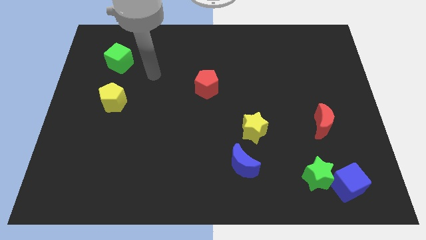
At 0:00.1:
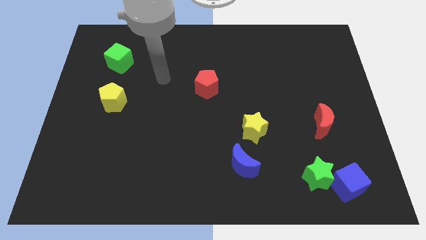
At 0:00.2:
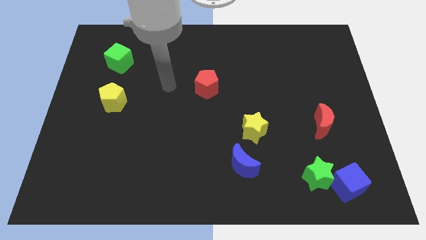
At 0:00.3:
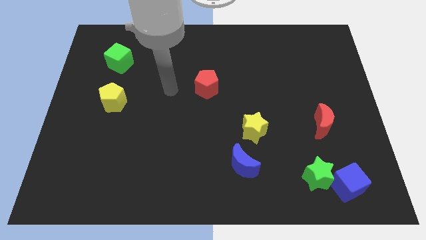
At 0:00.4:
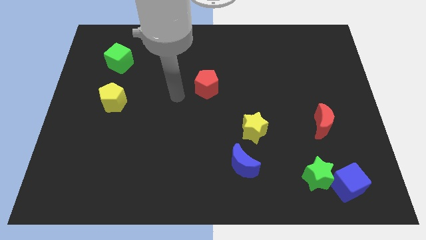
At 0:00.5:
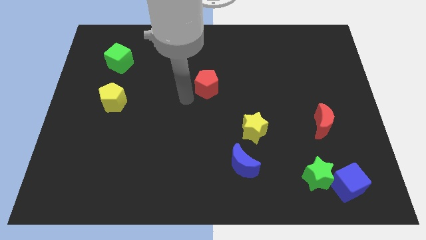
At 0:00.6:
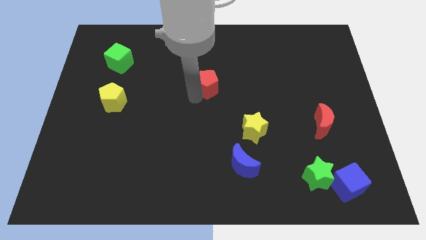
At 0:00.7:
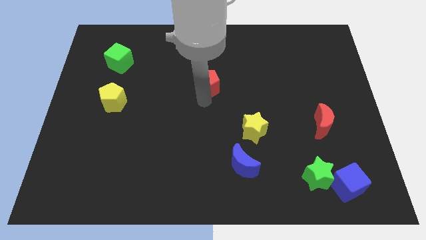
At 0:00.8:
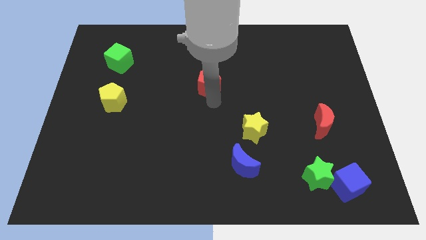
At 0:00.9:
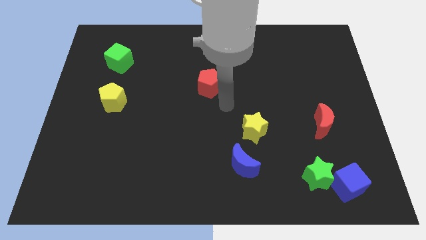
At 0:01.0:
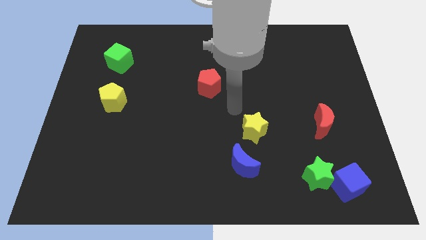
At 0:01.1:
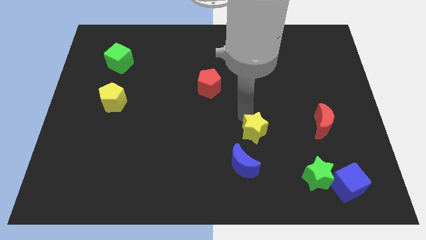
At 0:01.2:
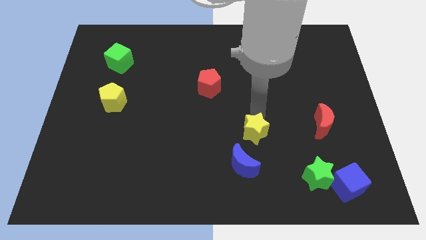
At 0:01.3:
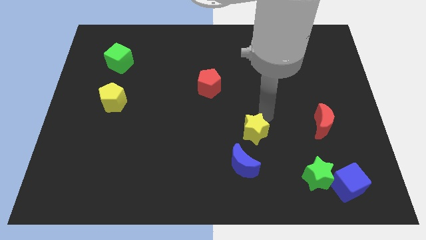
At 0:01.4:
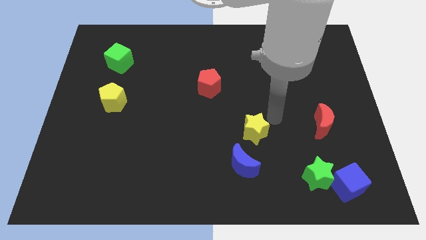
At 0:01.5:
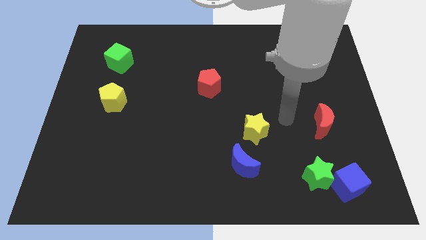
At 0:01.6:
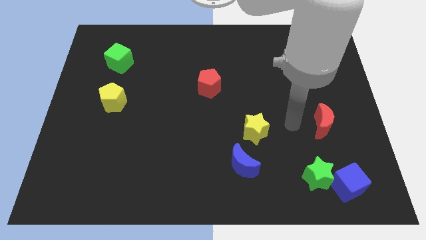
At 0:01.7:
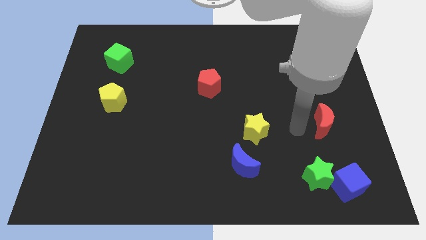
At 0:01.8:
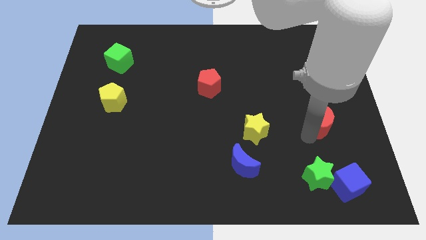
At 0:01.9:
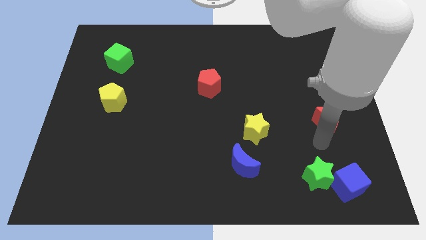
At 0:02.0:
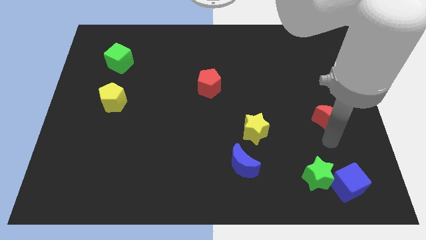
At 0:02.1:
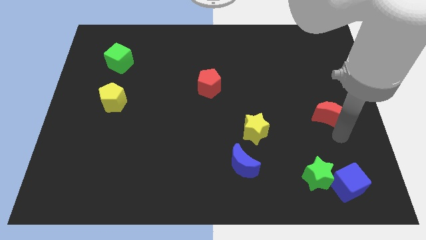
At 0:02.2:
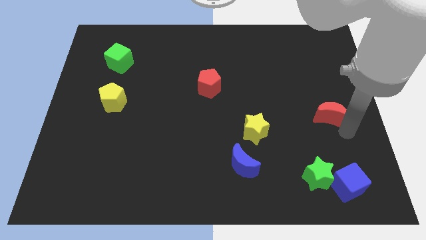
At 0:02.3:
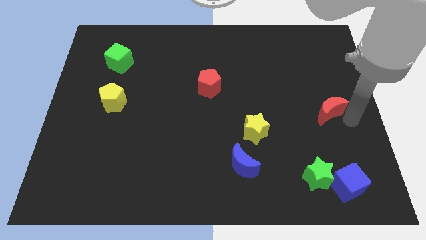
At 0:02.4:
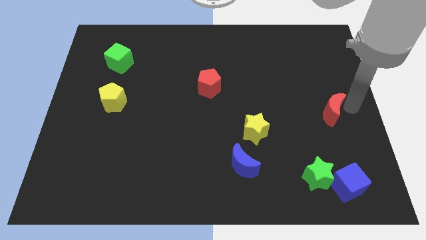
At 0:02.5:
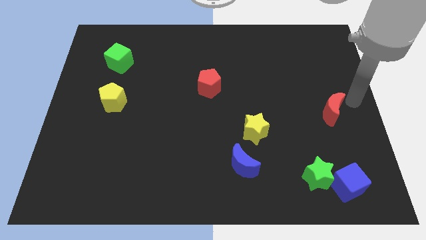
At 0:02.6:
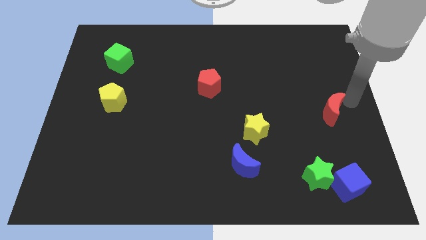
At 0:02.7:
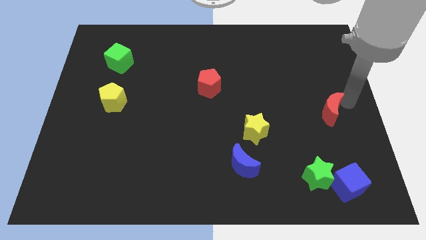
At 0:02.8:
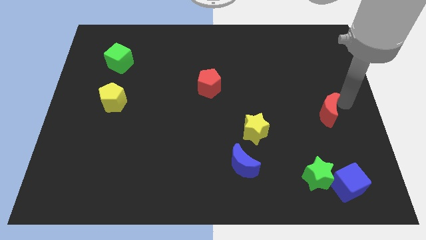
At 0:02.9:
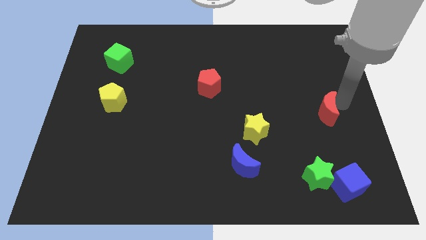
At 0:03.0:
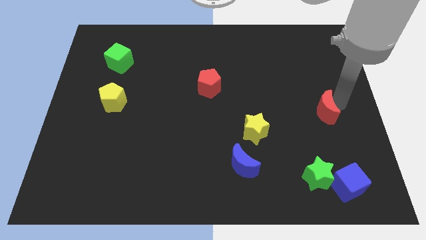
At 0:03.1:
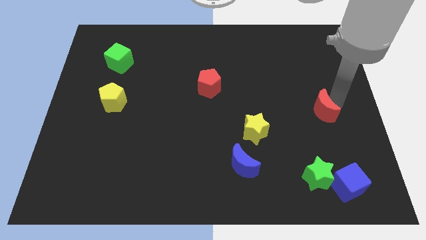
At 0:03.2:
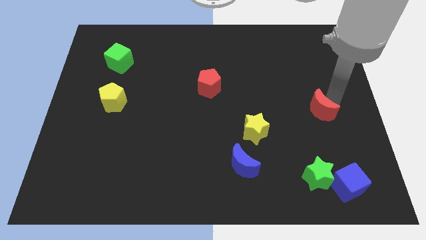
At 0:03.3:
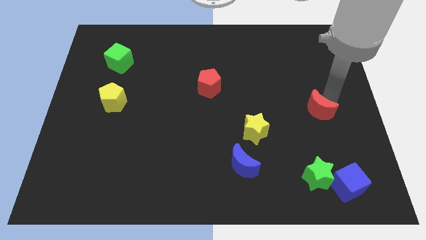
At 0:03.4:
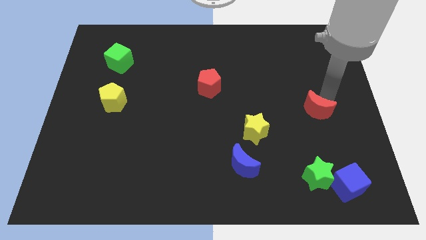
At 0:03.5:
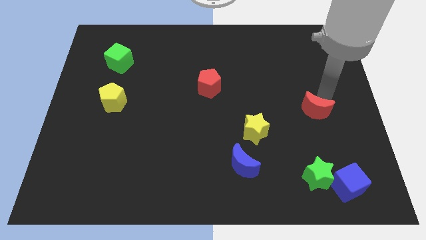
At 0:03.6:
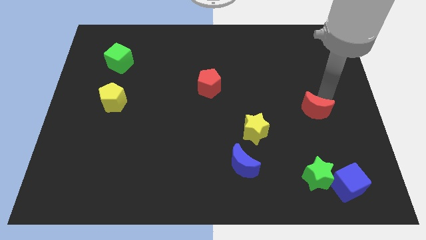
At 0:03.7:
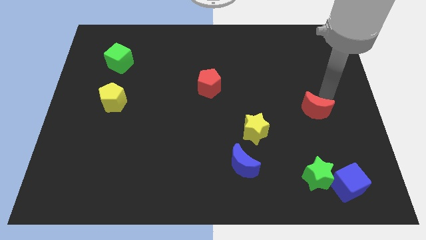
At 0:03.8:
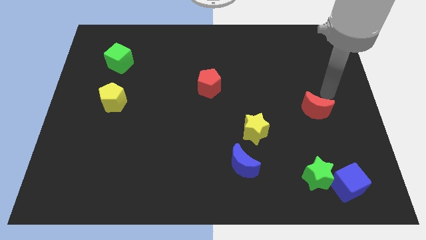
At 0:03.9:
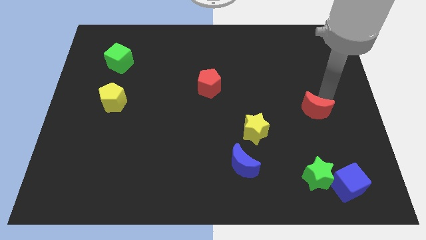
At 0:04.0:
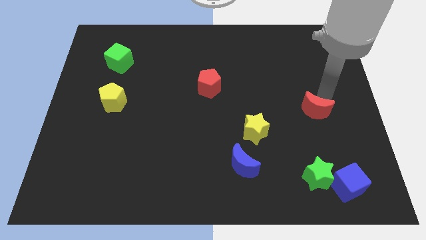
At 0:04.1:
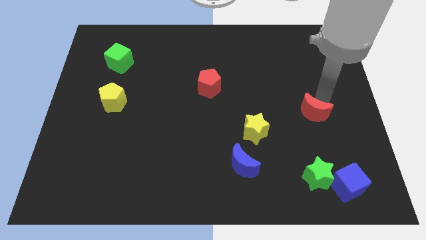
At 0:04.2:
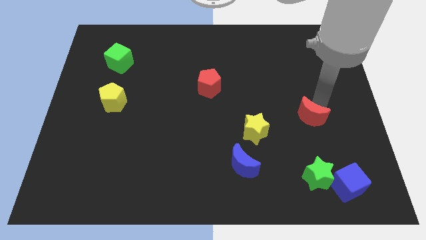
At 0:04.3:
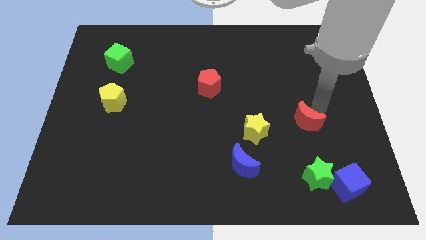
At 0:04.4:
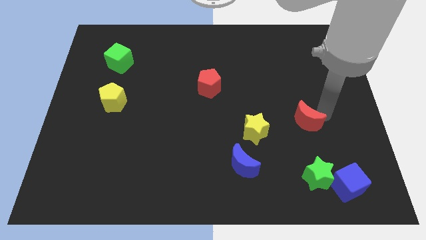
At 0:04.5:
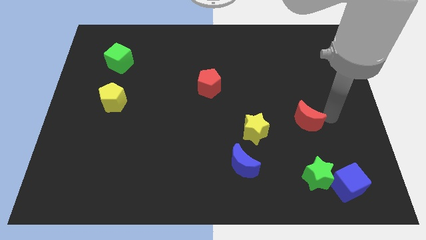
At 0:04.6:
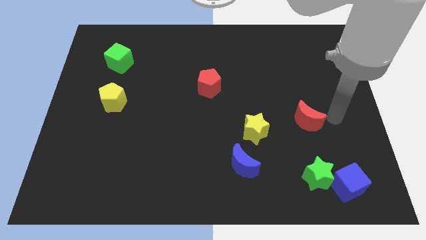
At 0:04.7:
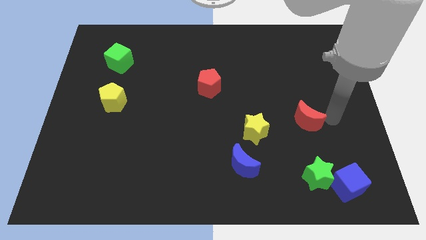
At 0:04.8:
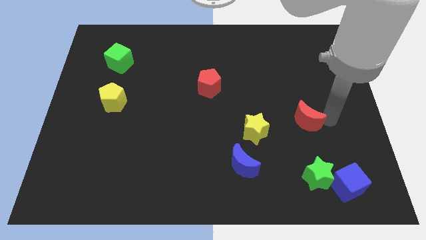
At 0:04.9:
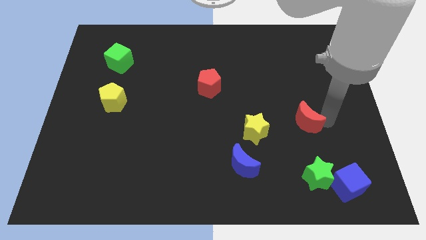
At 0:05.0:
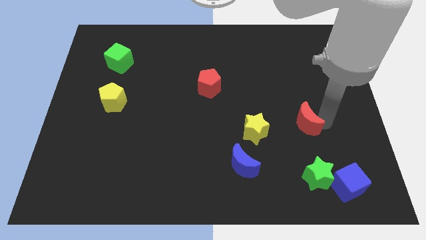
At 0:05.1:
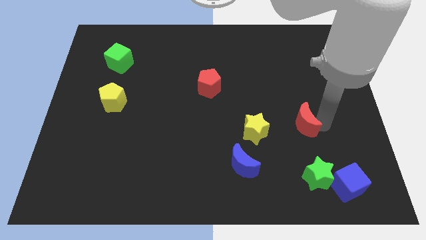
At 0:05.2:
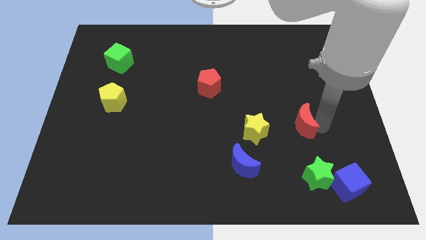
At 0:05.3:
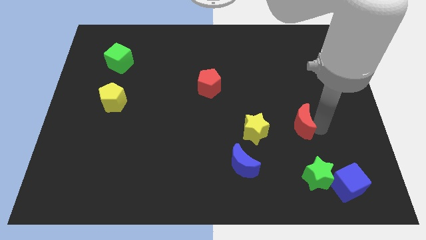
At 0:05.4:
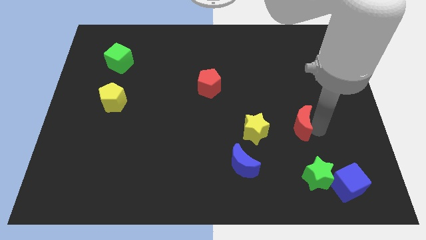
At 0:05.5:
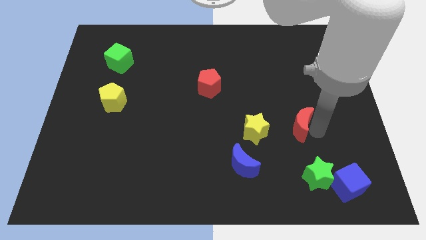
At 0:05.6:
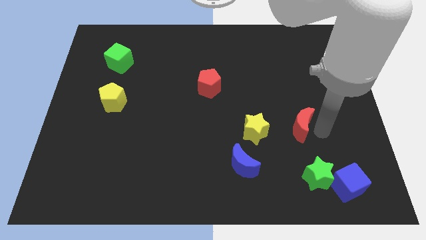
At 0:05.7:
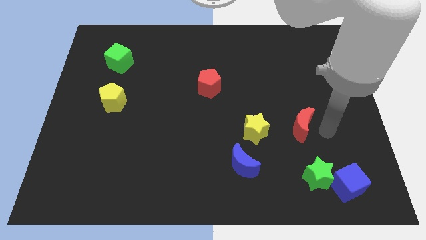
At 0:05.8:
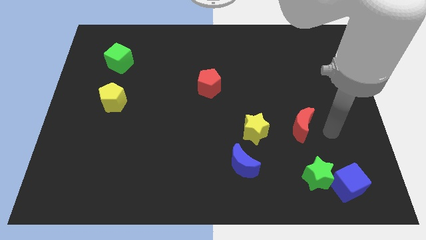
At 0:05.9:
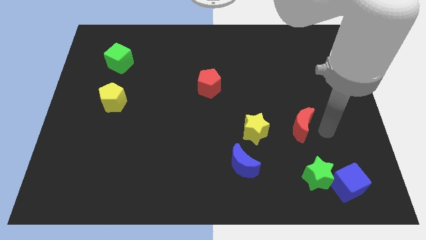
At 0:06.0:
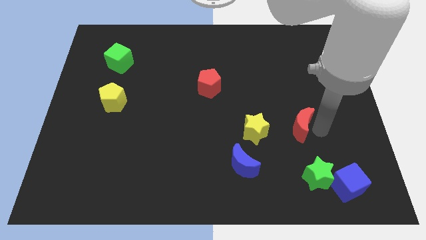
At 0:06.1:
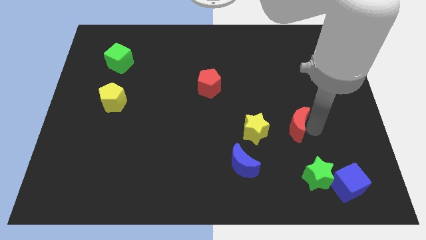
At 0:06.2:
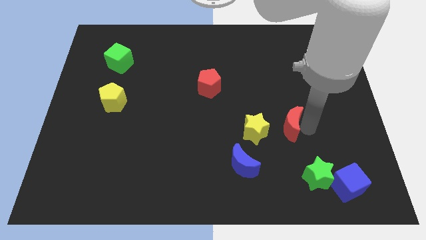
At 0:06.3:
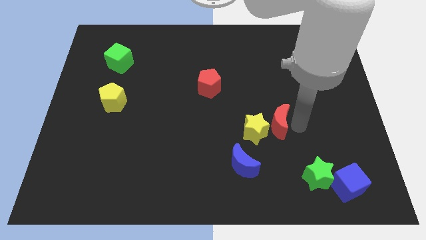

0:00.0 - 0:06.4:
put the red moon next to the yellow star

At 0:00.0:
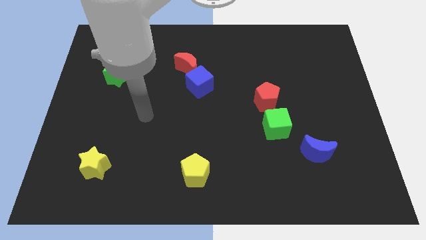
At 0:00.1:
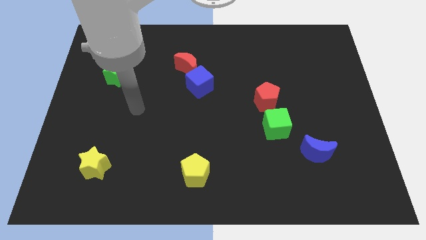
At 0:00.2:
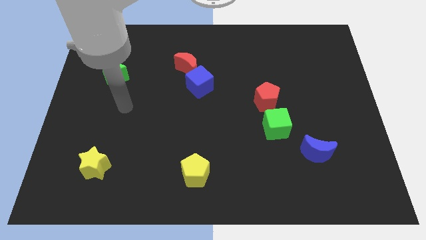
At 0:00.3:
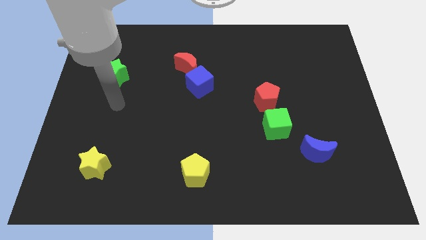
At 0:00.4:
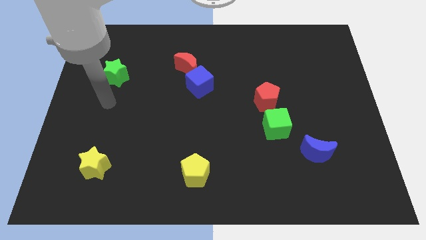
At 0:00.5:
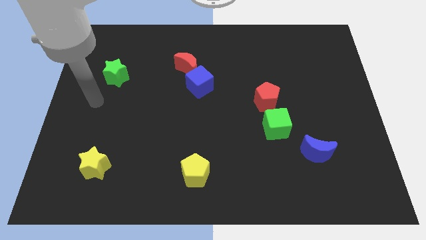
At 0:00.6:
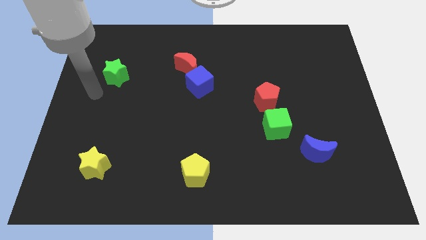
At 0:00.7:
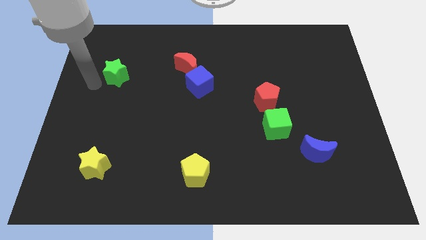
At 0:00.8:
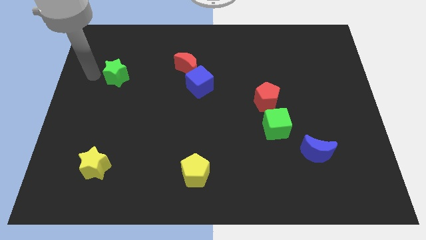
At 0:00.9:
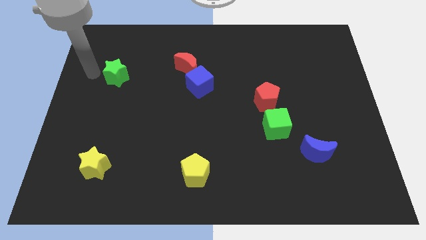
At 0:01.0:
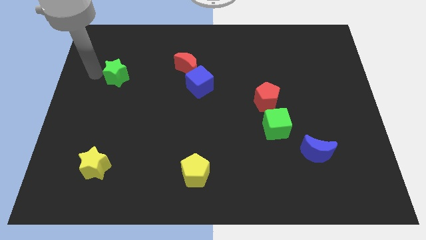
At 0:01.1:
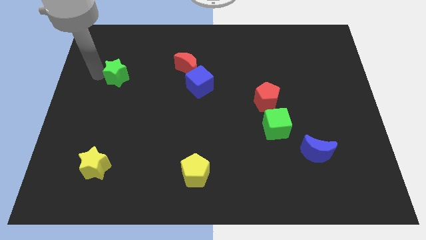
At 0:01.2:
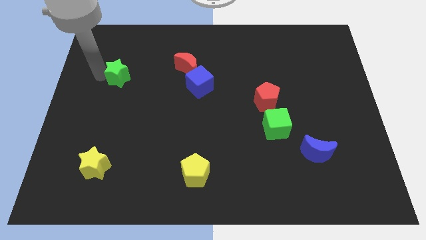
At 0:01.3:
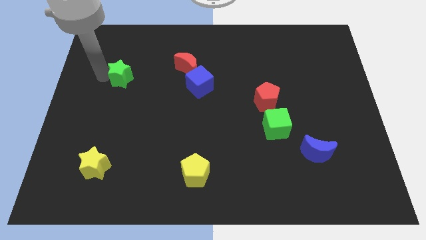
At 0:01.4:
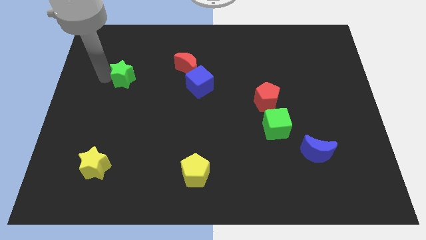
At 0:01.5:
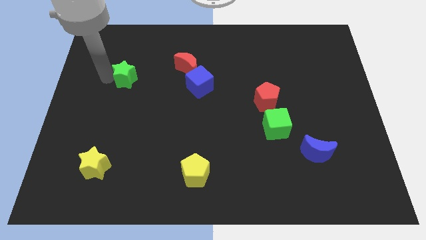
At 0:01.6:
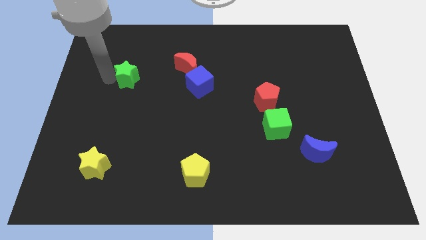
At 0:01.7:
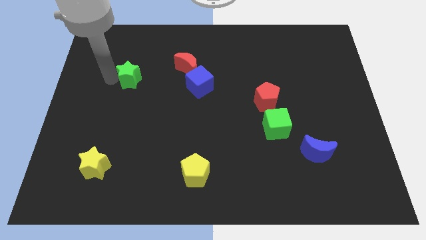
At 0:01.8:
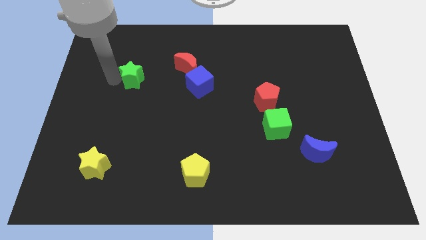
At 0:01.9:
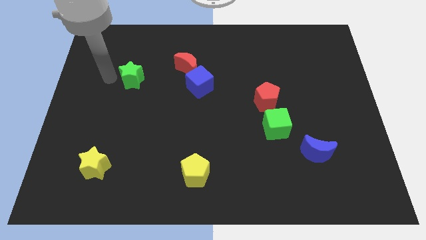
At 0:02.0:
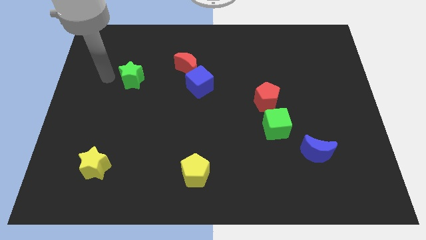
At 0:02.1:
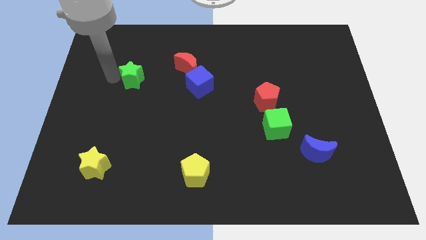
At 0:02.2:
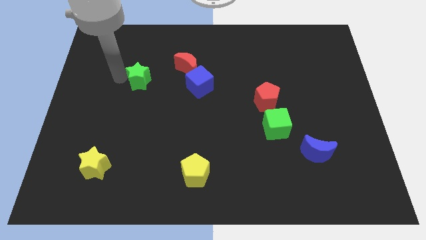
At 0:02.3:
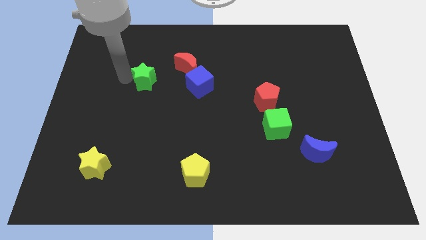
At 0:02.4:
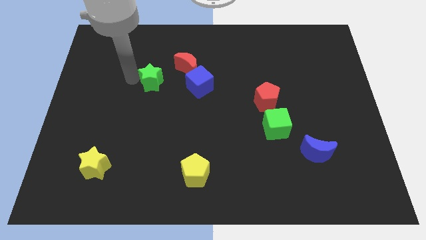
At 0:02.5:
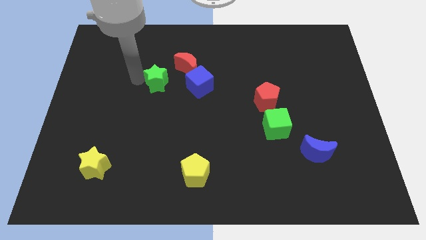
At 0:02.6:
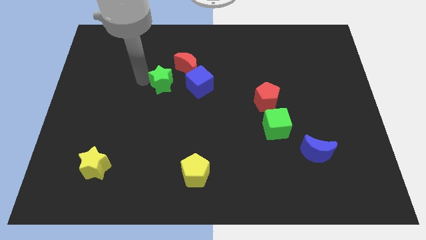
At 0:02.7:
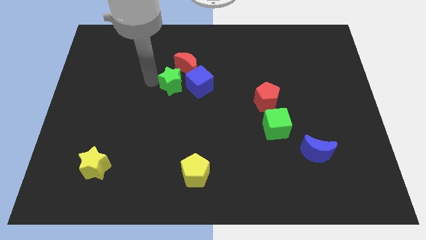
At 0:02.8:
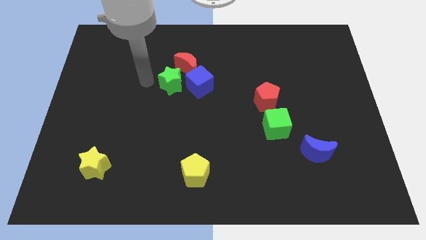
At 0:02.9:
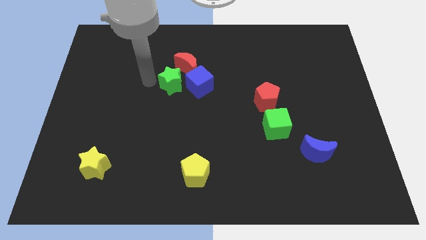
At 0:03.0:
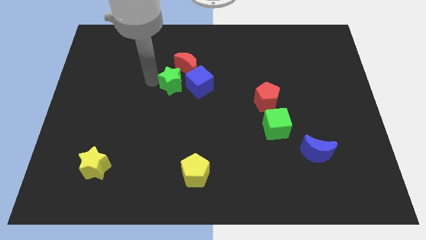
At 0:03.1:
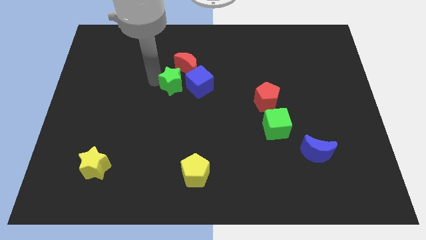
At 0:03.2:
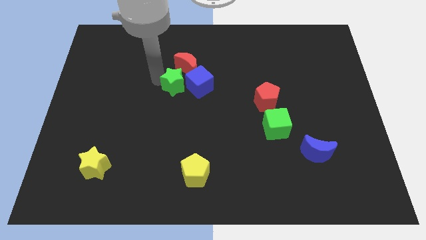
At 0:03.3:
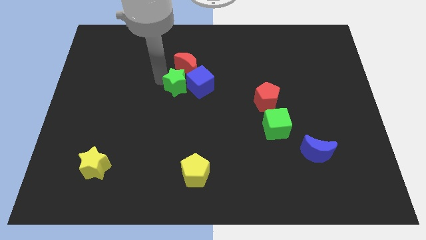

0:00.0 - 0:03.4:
push the green star towards the blue cube
